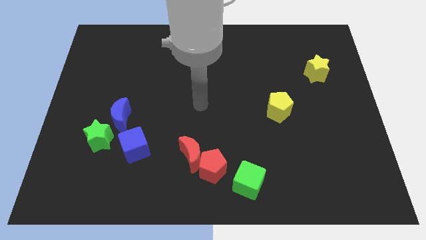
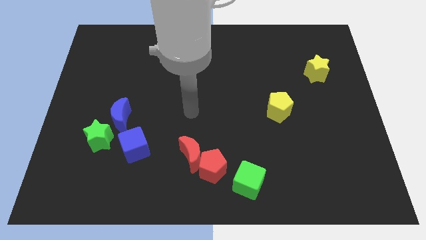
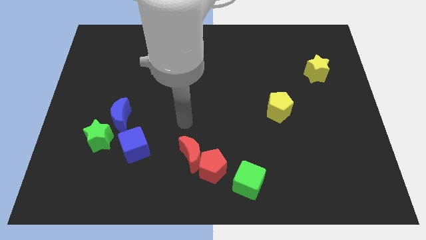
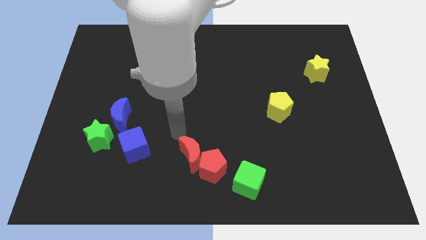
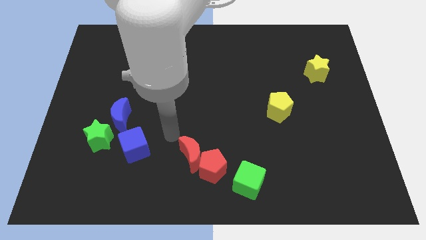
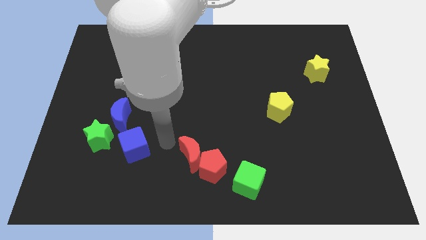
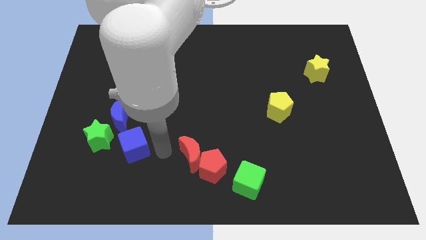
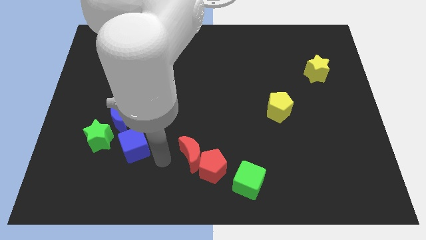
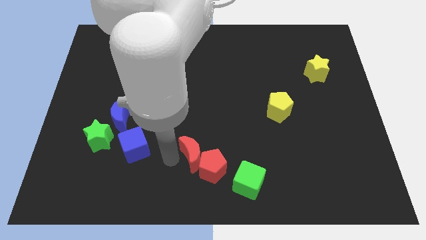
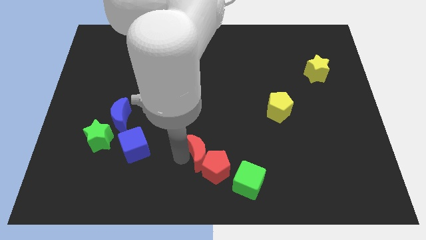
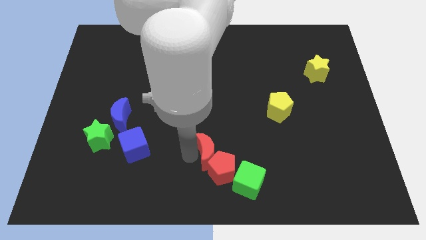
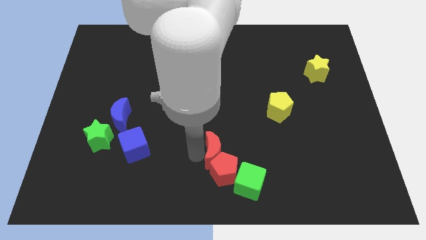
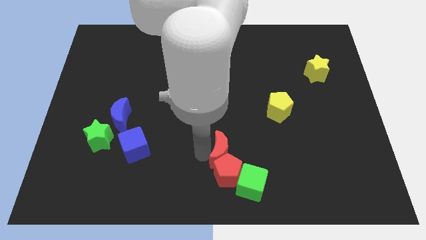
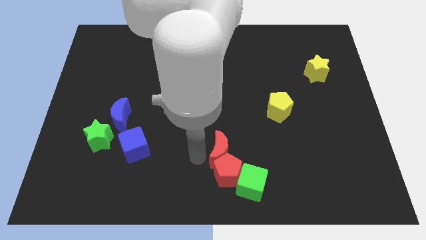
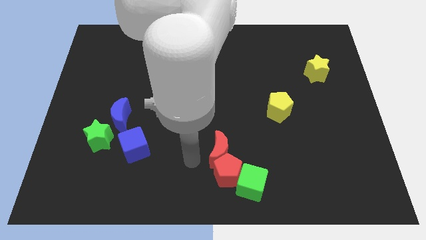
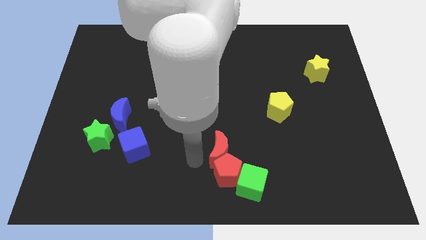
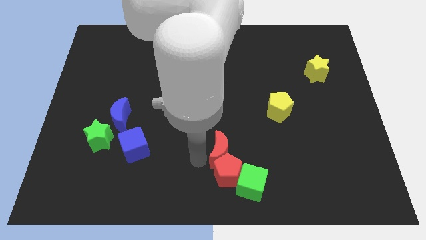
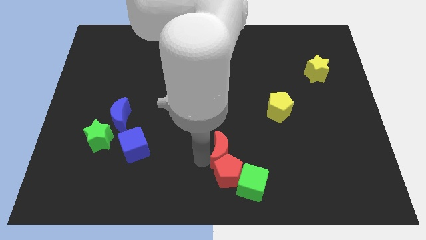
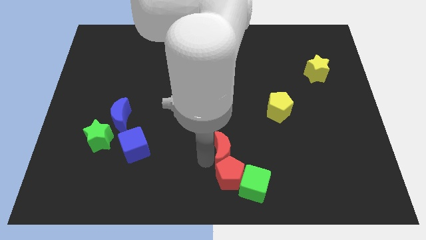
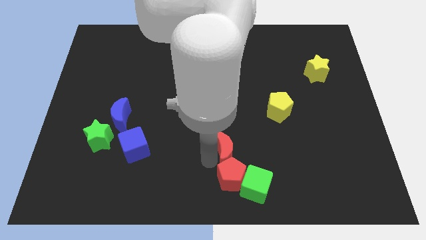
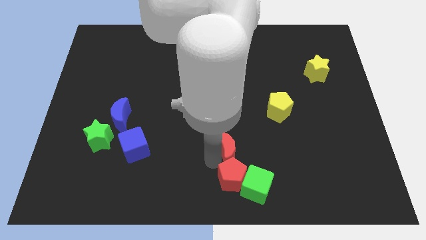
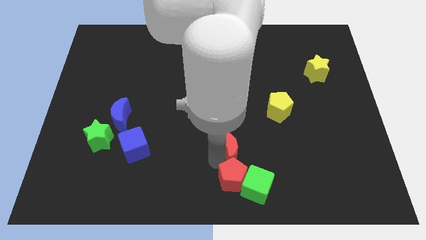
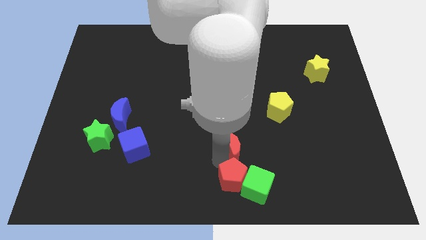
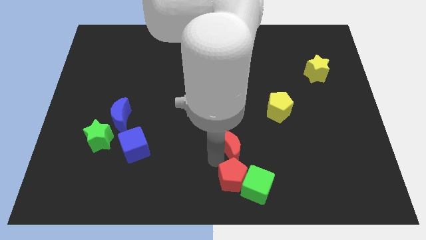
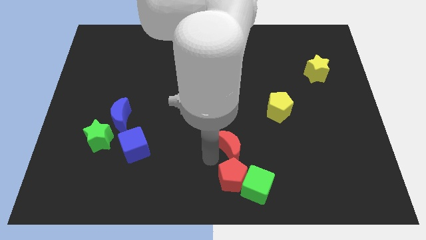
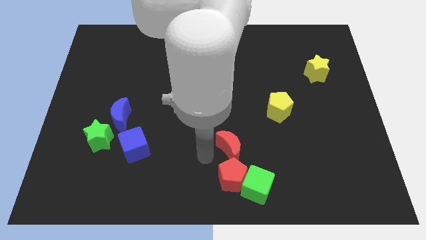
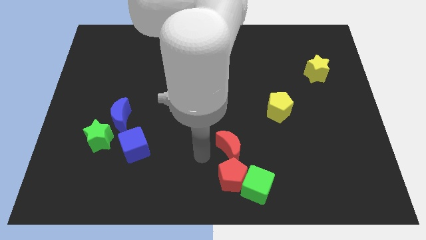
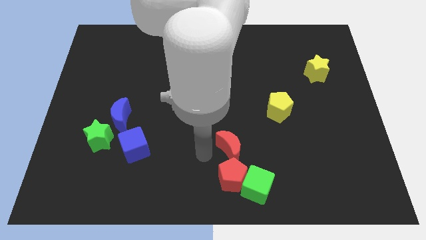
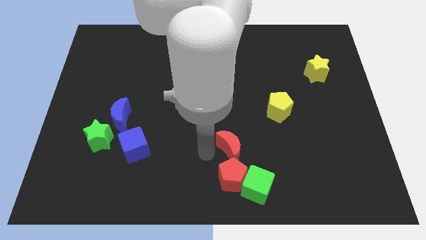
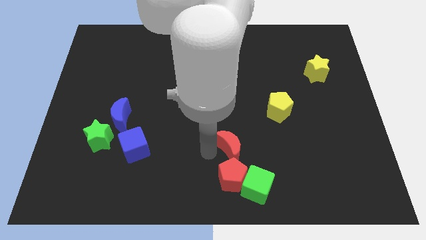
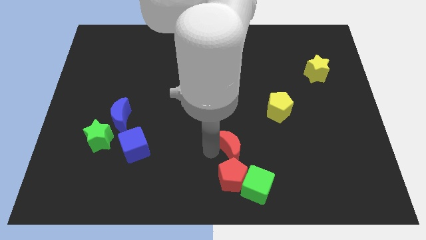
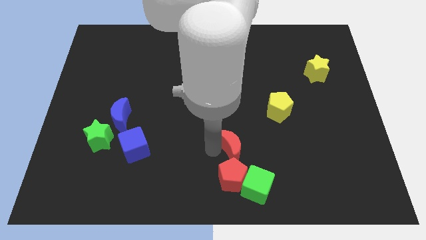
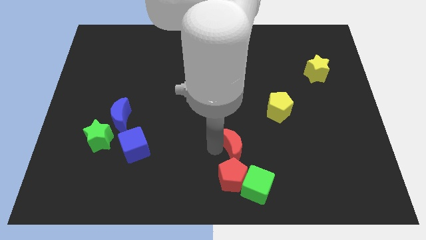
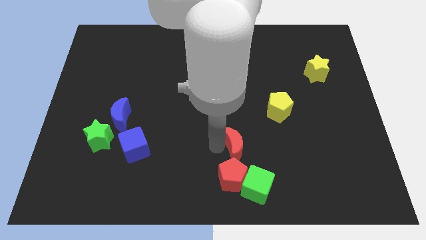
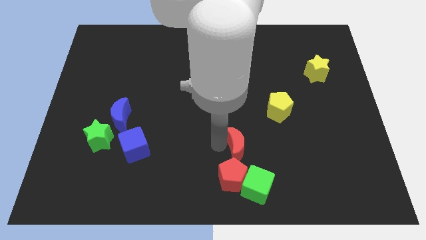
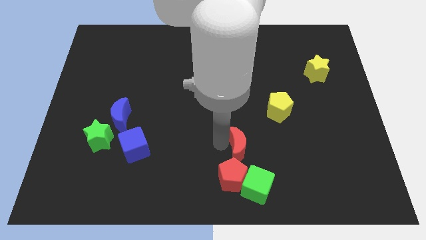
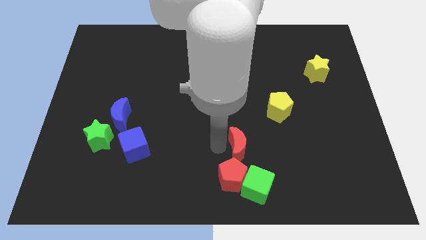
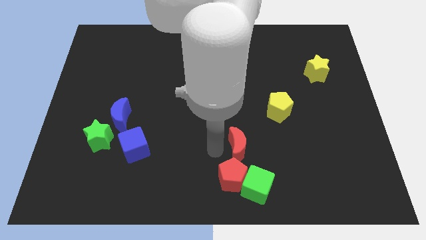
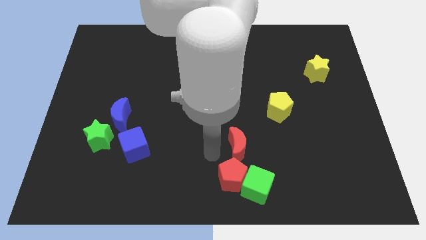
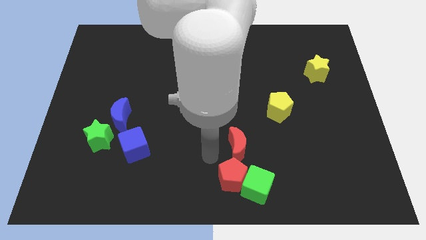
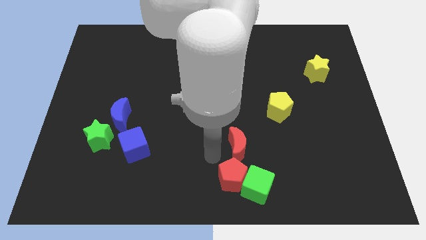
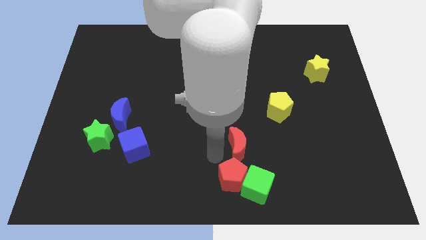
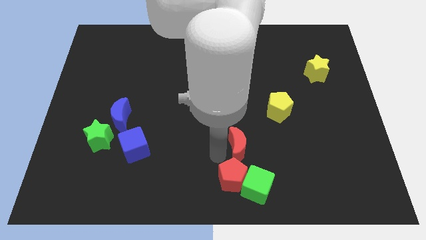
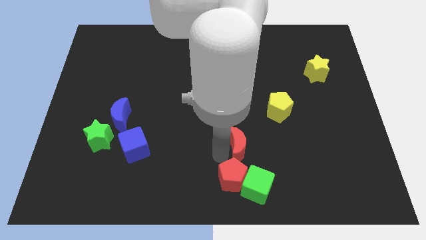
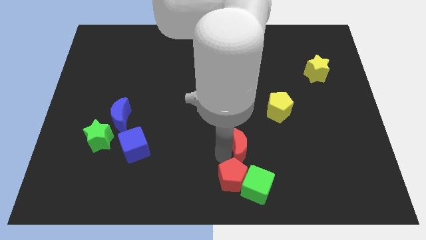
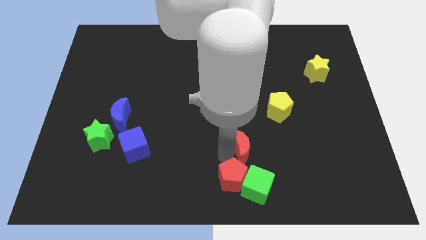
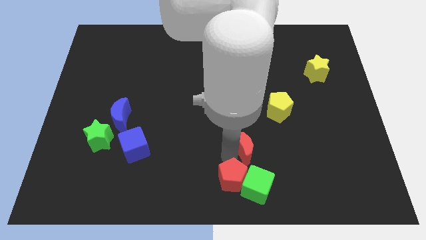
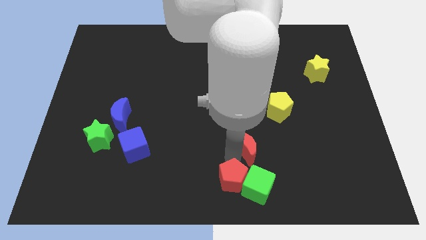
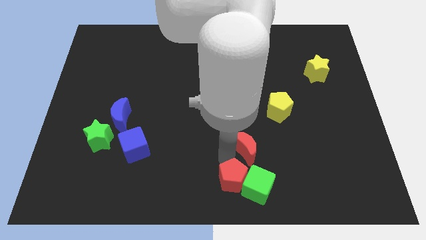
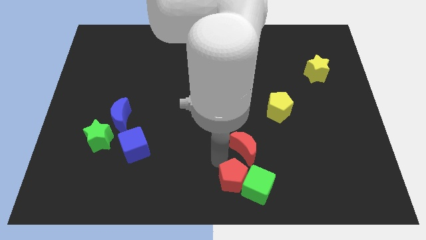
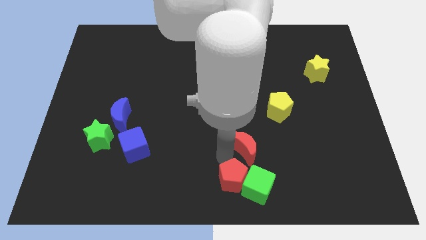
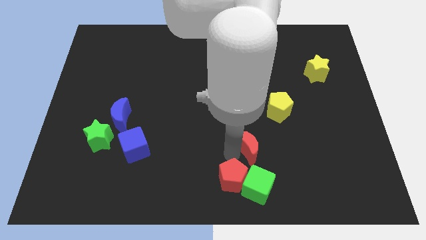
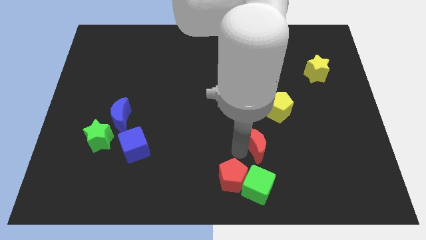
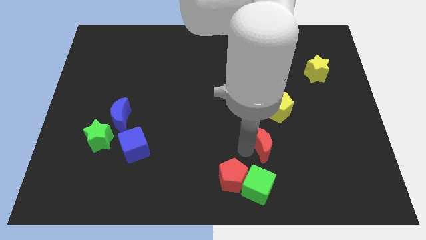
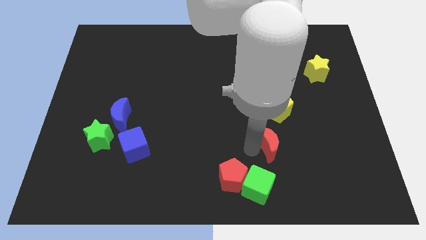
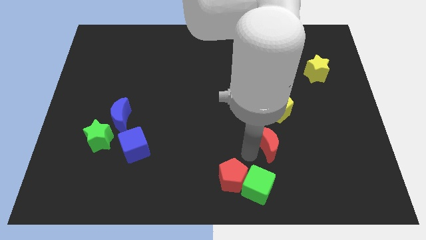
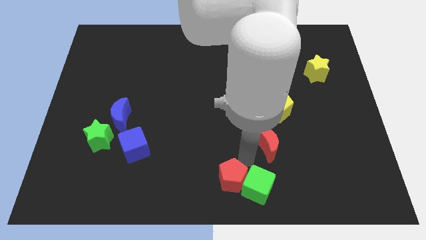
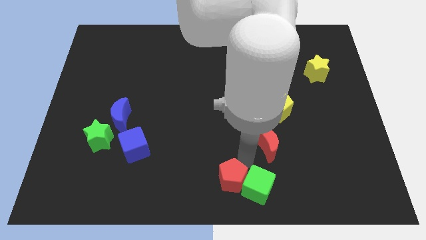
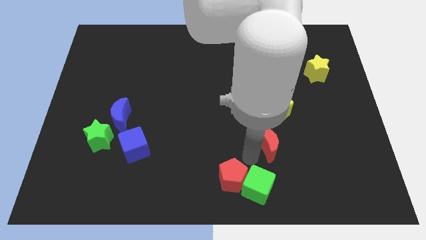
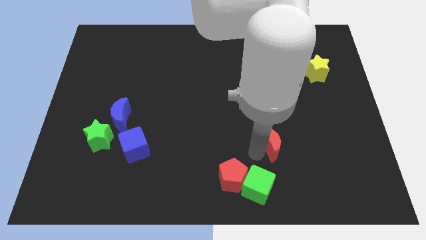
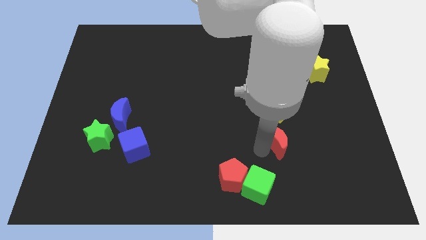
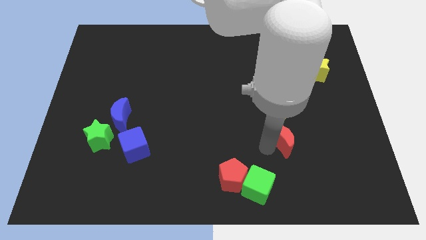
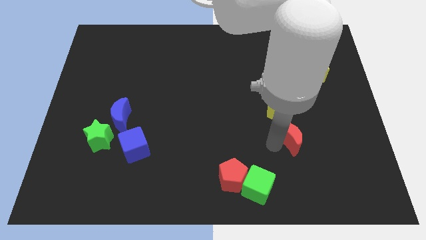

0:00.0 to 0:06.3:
push the red moon to the bottom right side of the yellow pentagon

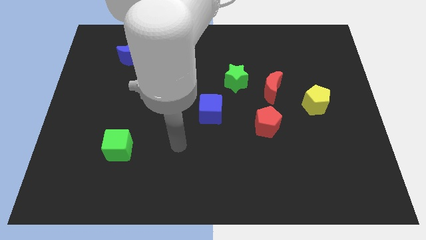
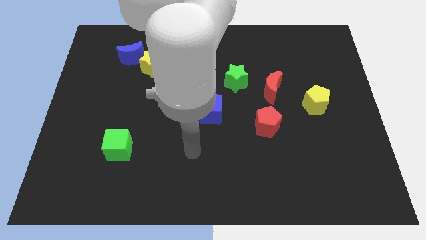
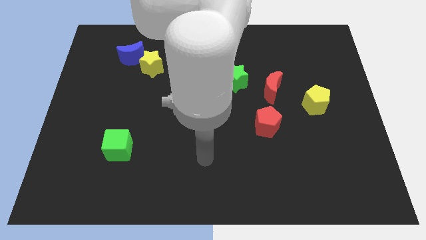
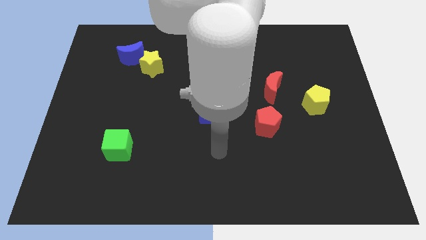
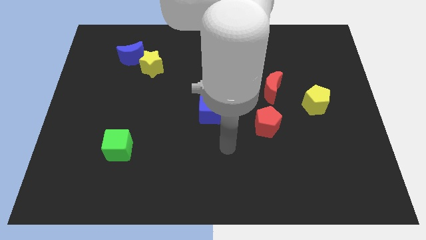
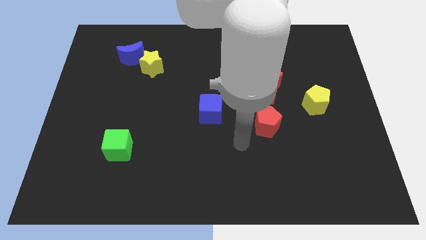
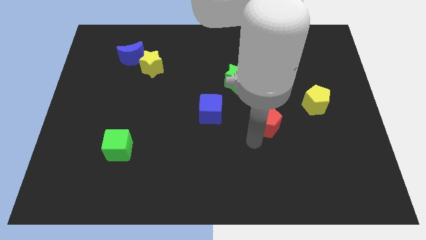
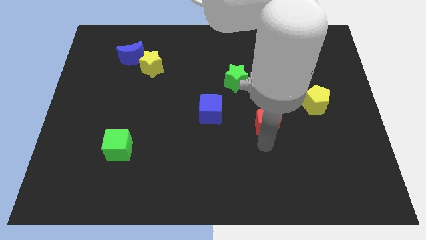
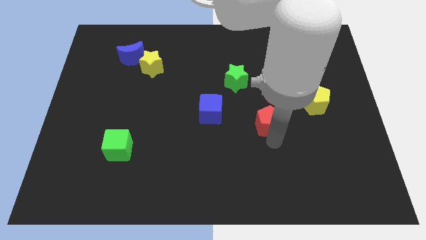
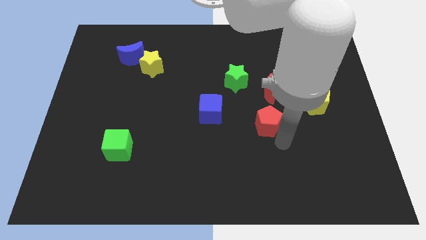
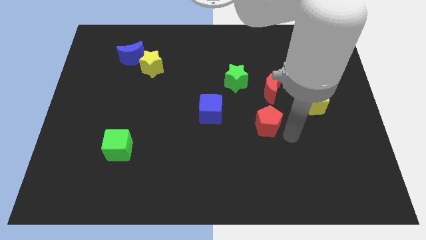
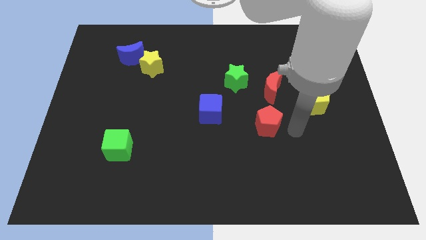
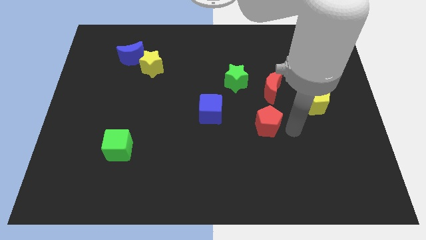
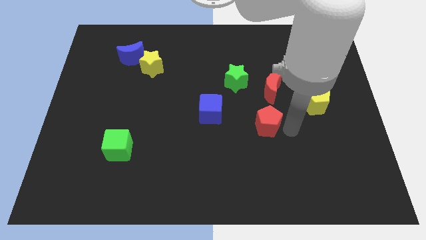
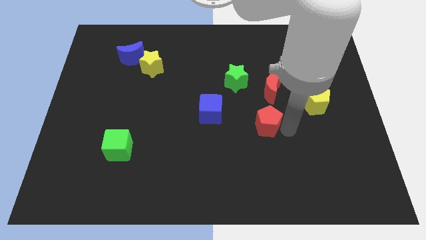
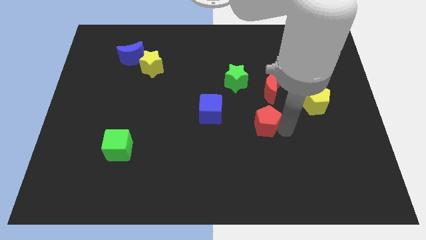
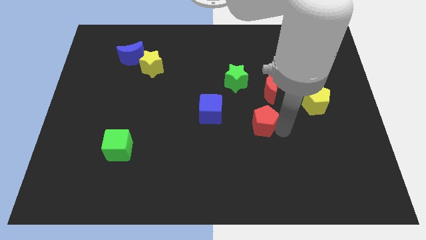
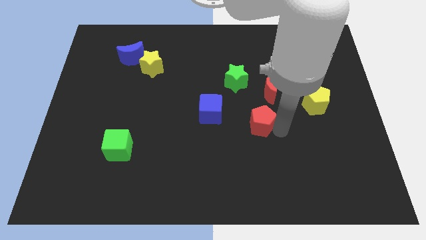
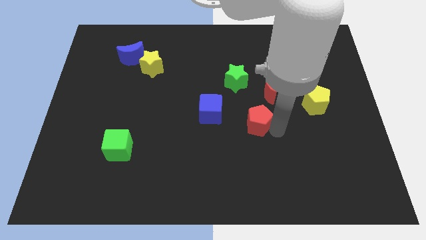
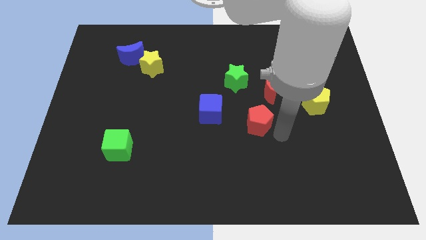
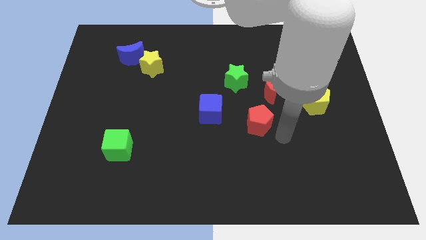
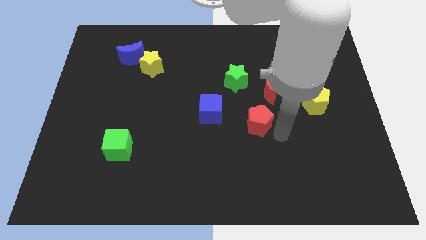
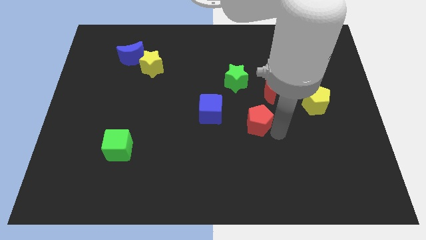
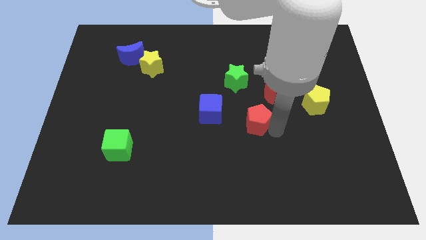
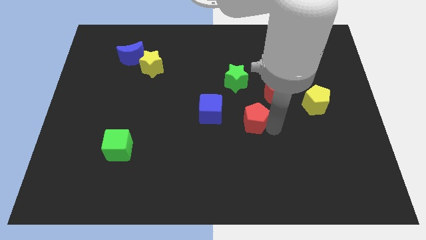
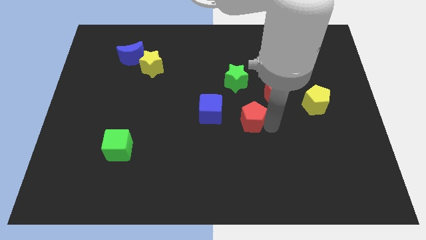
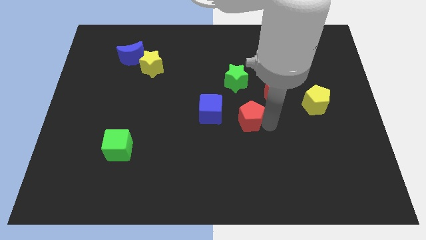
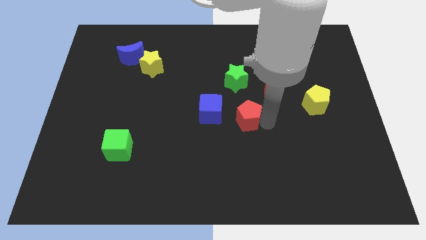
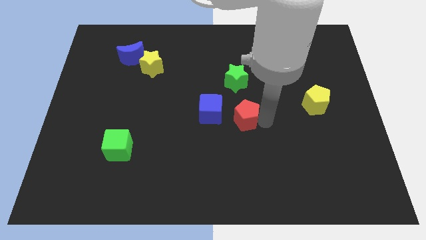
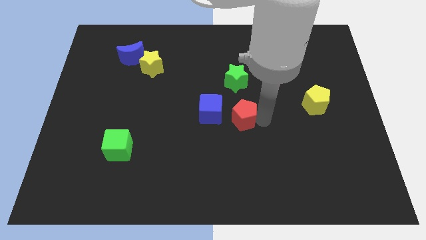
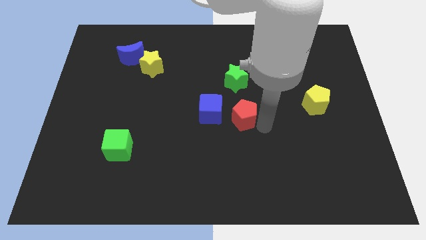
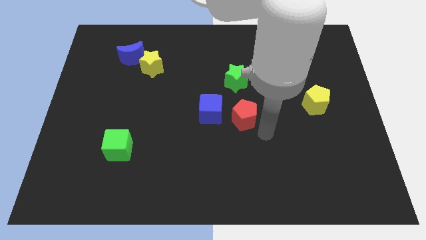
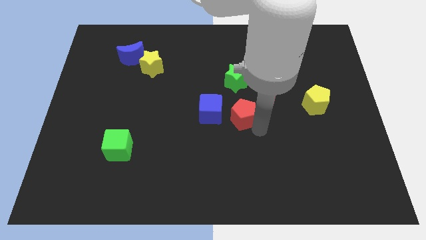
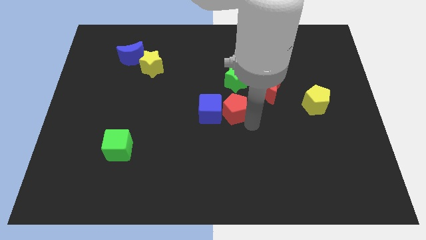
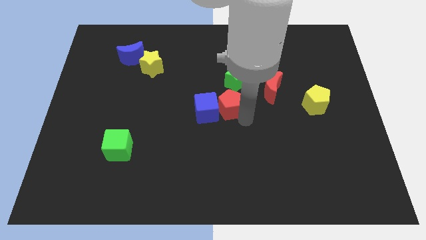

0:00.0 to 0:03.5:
push the red pentagon diagonally down and to the left of the green star
